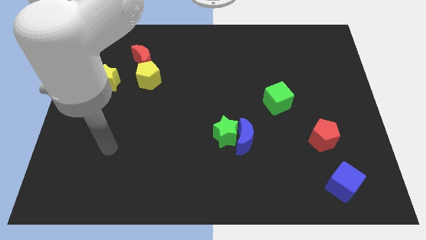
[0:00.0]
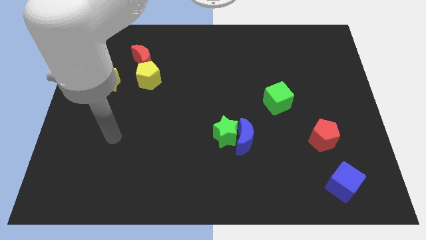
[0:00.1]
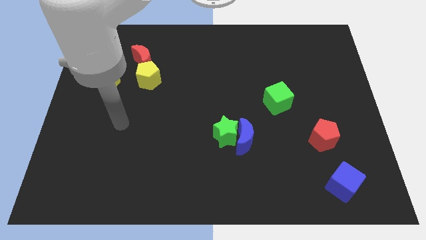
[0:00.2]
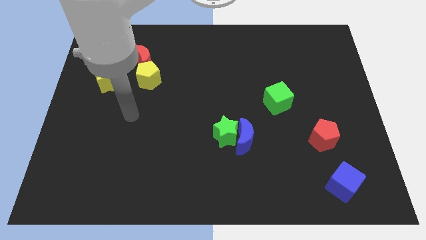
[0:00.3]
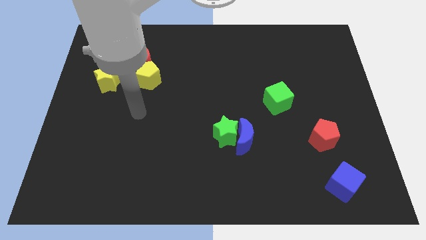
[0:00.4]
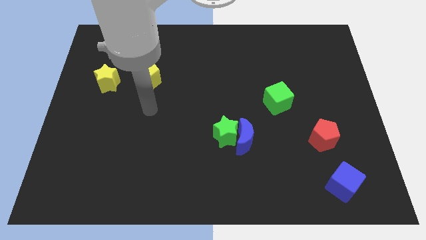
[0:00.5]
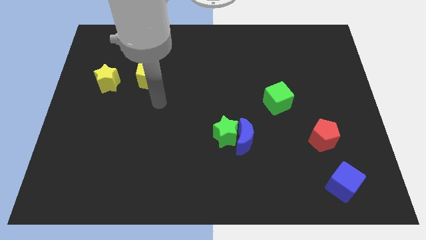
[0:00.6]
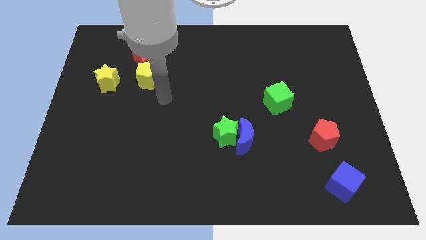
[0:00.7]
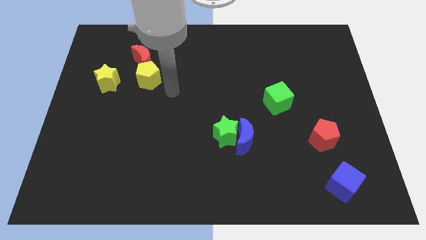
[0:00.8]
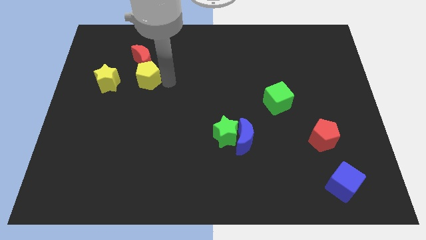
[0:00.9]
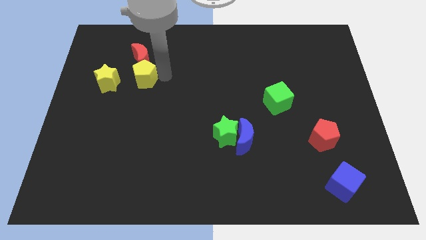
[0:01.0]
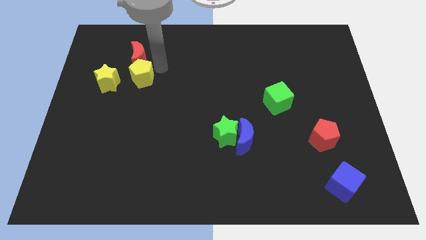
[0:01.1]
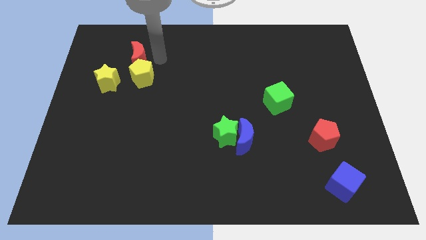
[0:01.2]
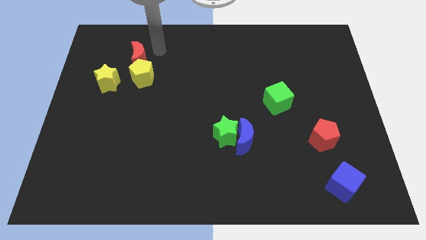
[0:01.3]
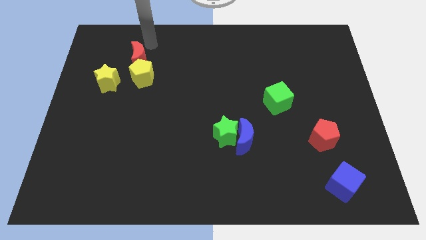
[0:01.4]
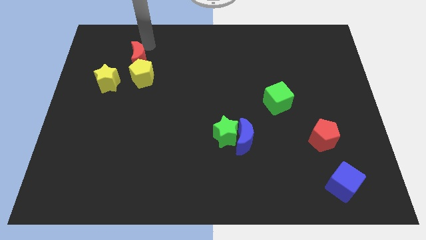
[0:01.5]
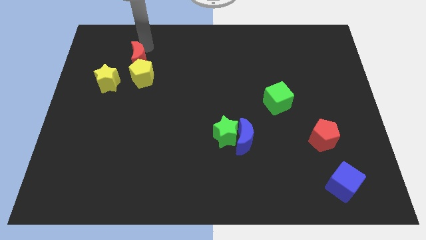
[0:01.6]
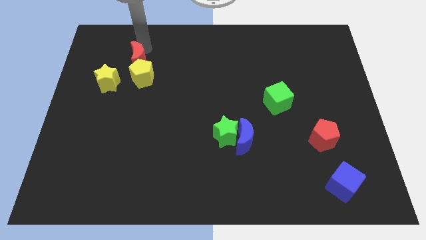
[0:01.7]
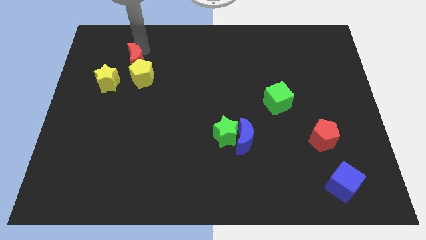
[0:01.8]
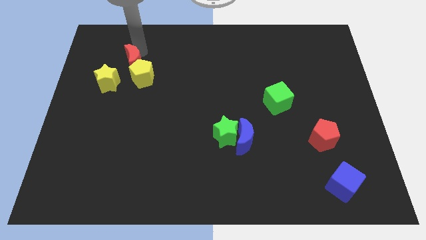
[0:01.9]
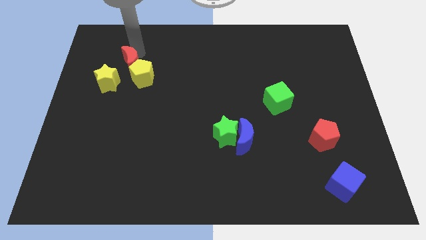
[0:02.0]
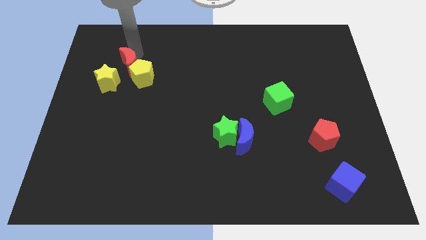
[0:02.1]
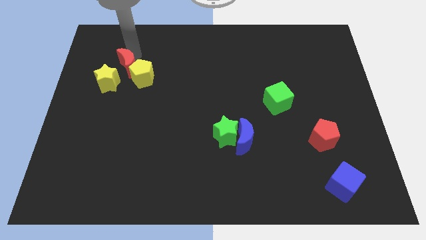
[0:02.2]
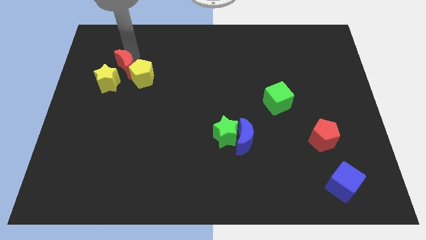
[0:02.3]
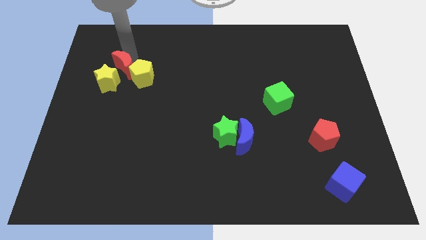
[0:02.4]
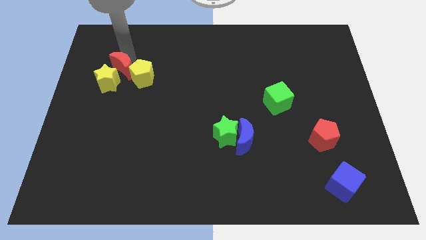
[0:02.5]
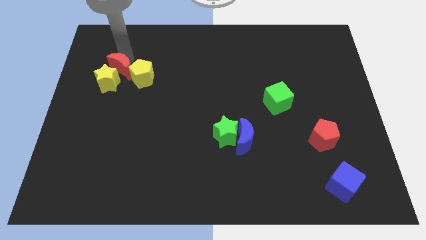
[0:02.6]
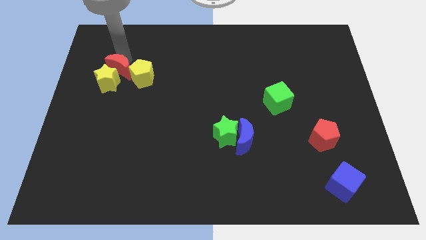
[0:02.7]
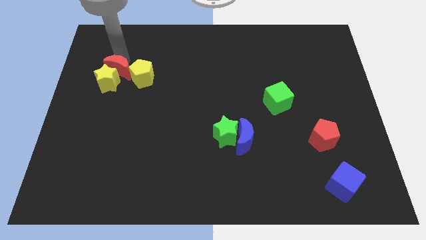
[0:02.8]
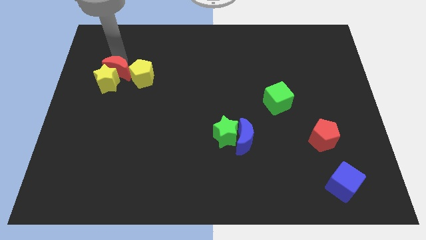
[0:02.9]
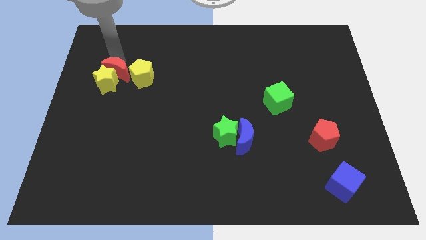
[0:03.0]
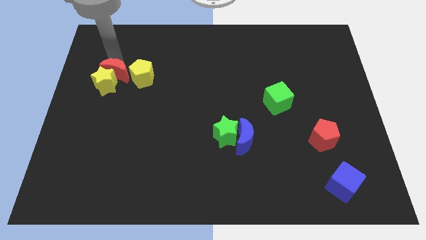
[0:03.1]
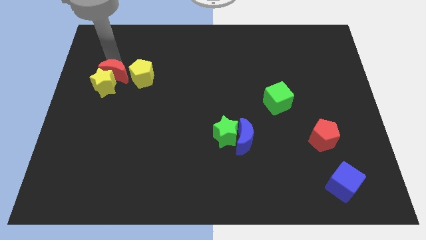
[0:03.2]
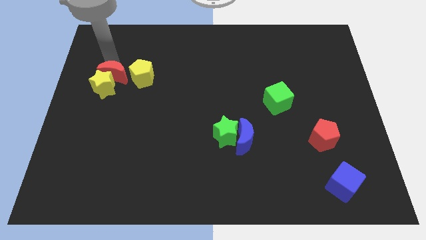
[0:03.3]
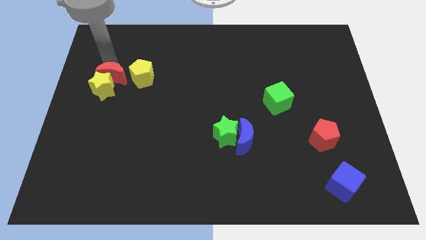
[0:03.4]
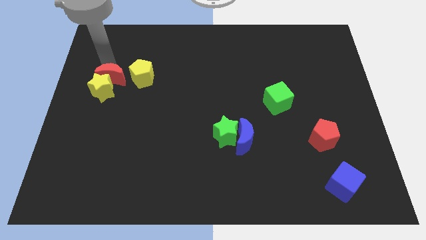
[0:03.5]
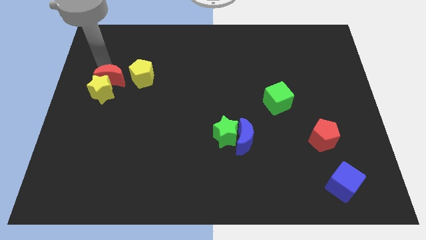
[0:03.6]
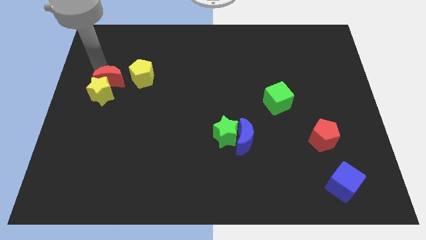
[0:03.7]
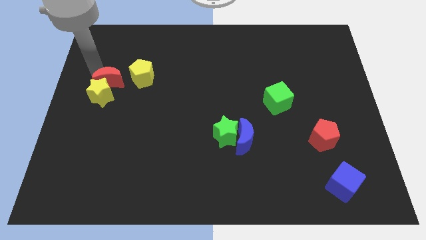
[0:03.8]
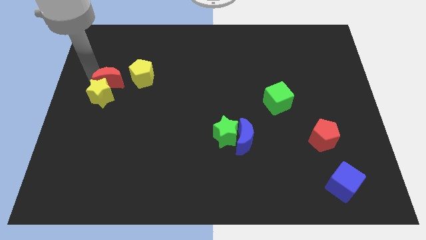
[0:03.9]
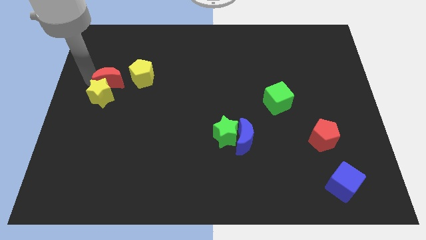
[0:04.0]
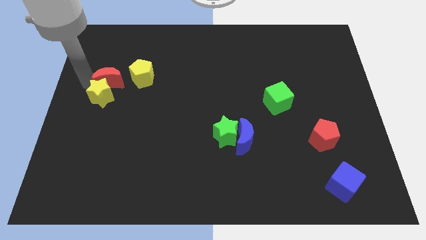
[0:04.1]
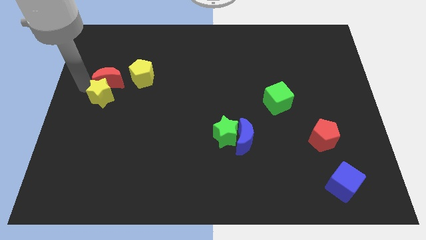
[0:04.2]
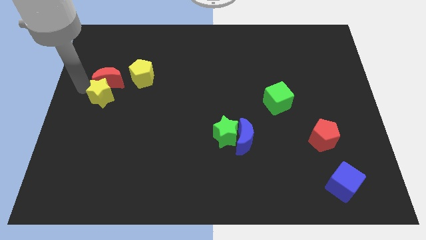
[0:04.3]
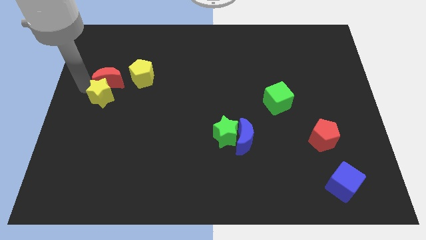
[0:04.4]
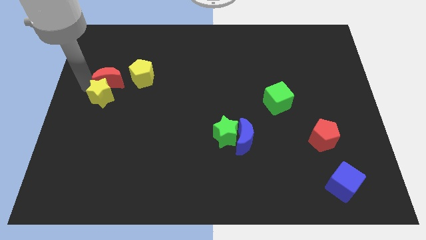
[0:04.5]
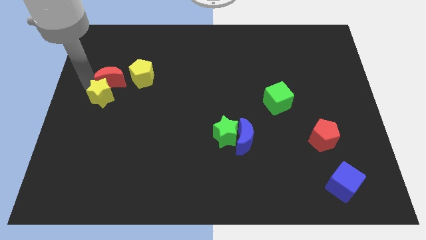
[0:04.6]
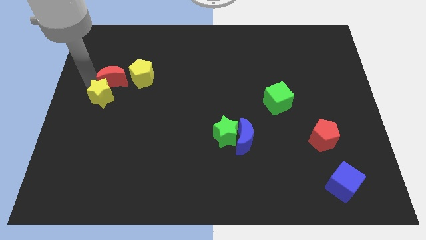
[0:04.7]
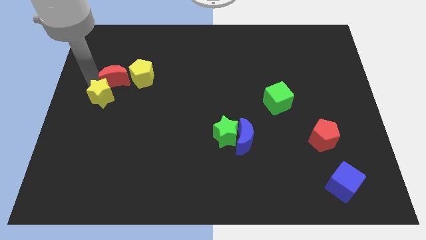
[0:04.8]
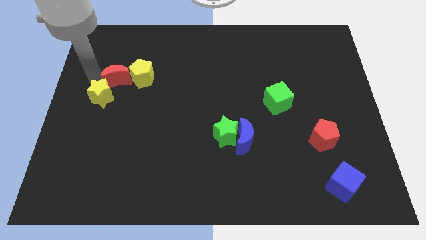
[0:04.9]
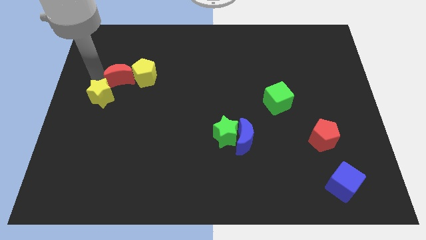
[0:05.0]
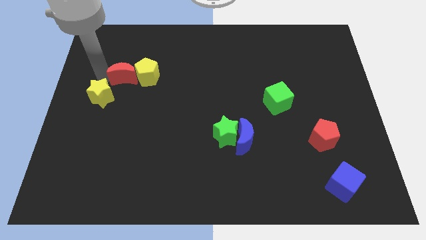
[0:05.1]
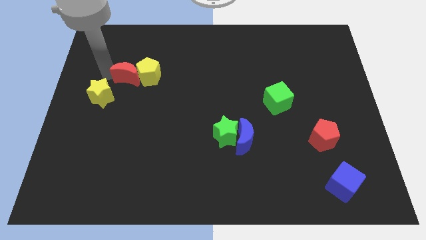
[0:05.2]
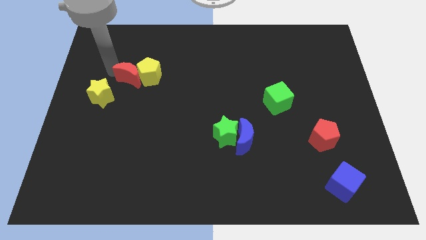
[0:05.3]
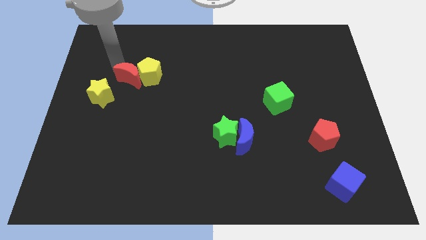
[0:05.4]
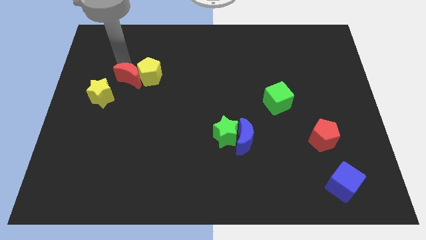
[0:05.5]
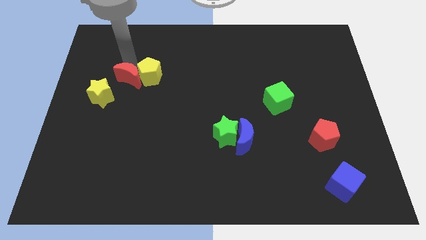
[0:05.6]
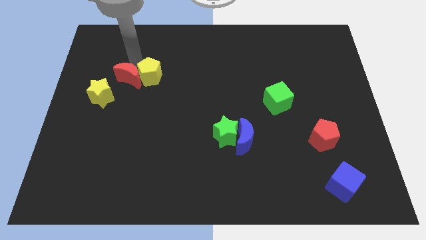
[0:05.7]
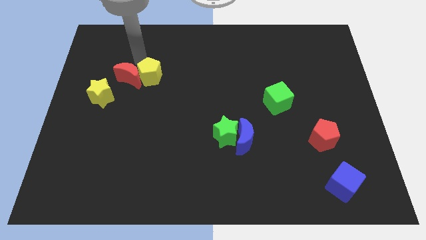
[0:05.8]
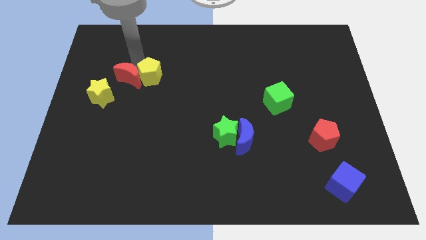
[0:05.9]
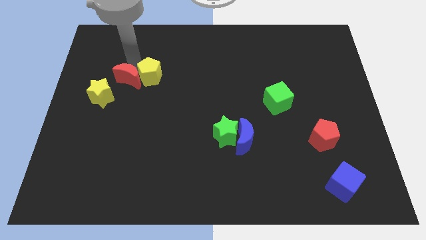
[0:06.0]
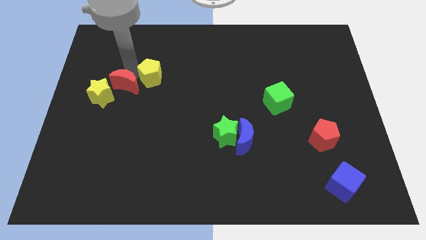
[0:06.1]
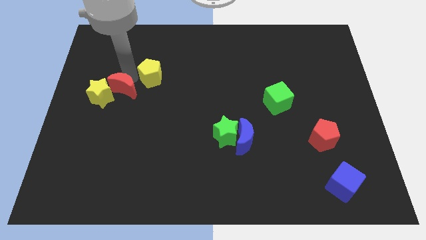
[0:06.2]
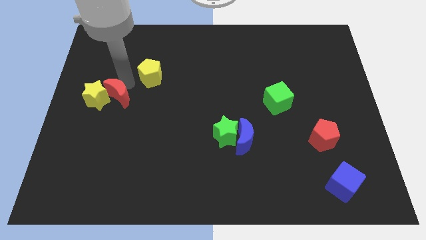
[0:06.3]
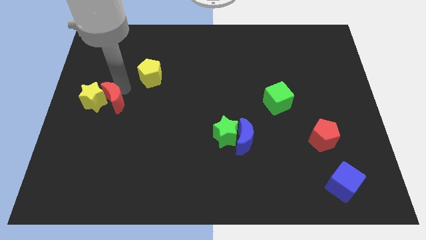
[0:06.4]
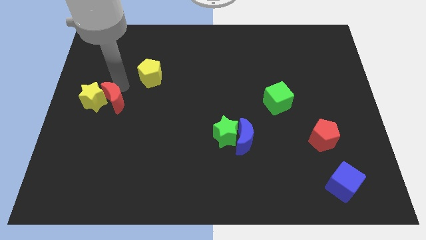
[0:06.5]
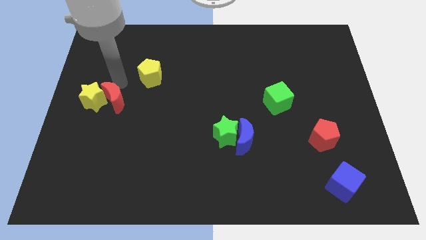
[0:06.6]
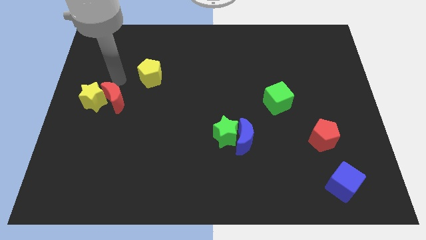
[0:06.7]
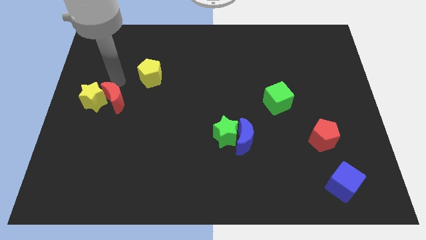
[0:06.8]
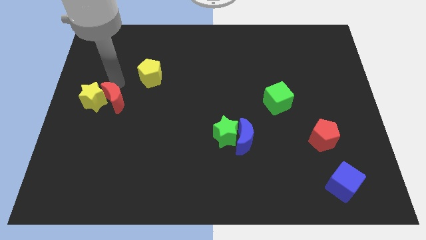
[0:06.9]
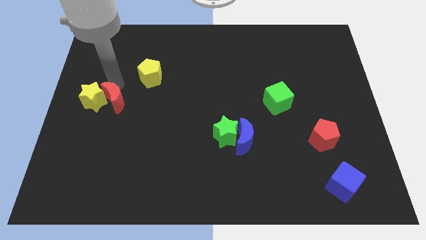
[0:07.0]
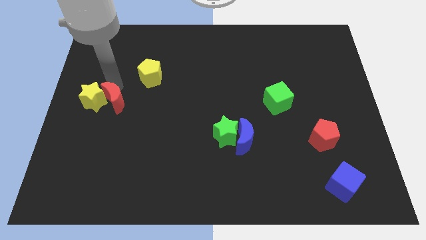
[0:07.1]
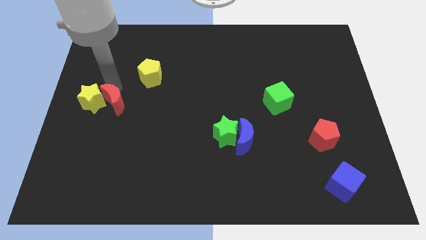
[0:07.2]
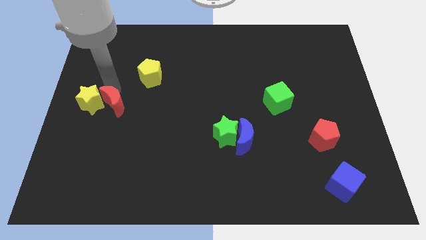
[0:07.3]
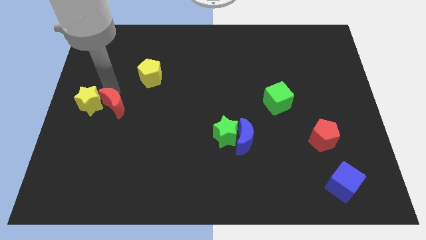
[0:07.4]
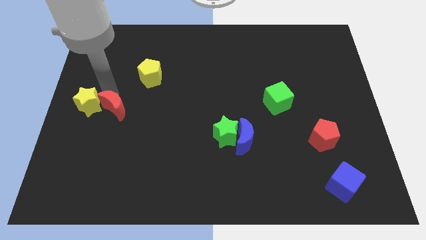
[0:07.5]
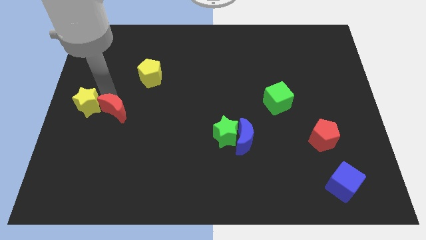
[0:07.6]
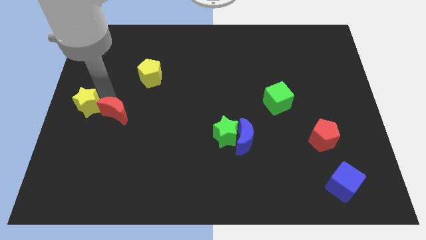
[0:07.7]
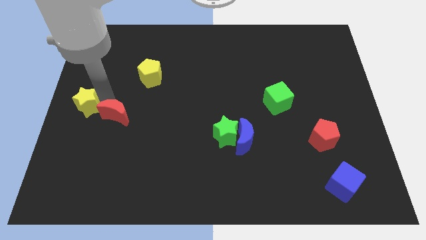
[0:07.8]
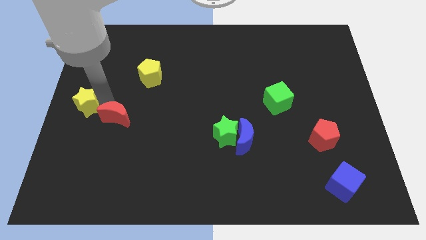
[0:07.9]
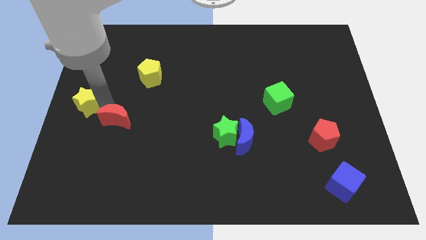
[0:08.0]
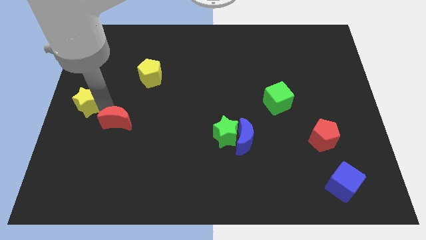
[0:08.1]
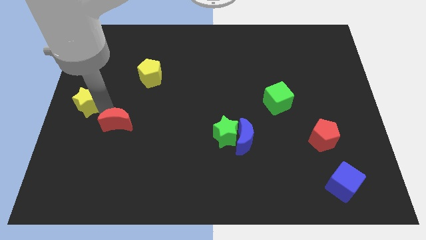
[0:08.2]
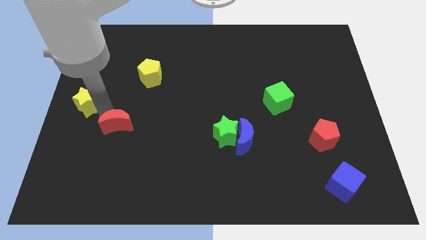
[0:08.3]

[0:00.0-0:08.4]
move the red moon downwards
